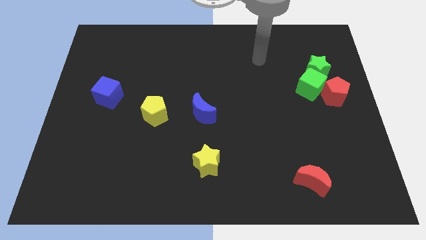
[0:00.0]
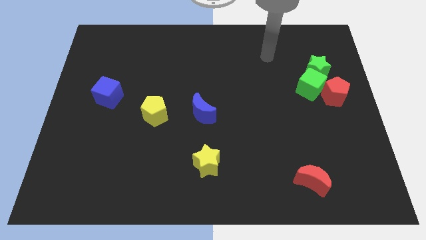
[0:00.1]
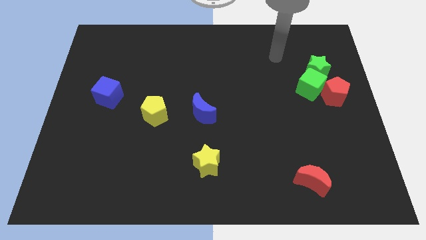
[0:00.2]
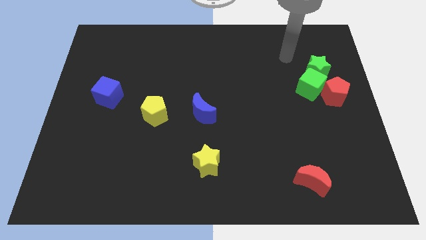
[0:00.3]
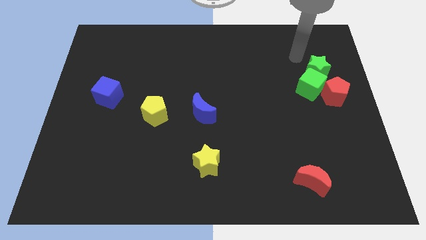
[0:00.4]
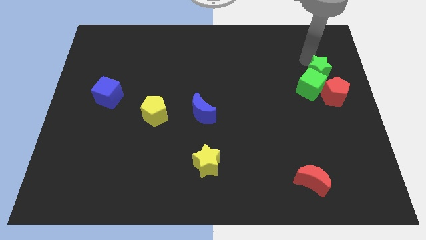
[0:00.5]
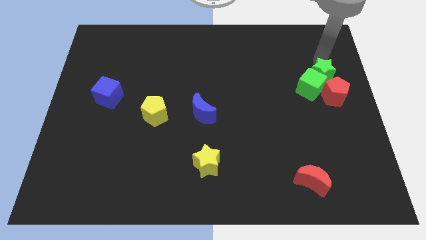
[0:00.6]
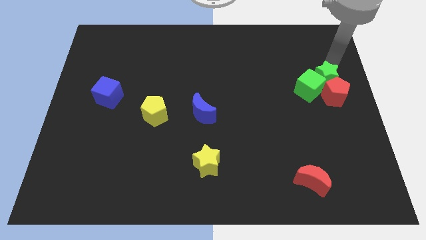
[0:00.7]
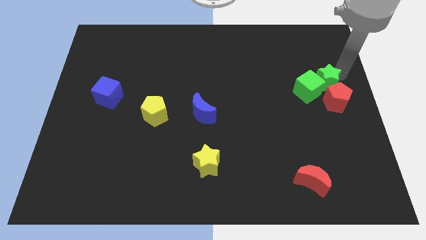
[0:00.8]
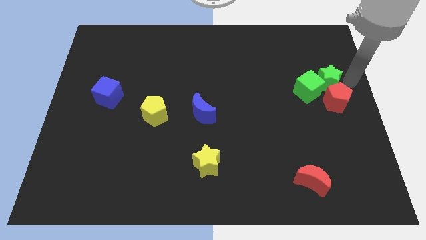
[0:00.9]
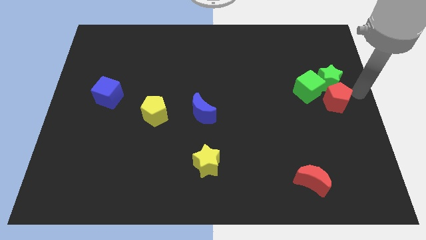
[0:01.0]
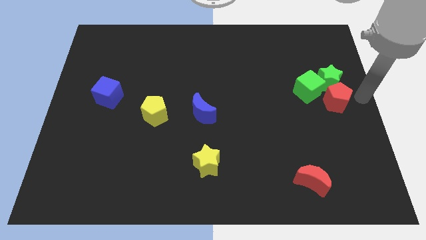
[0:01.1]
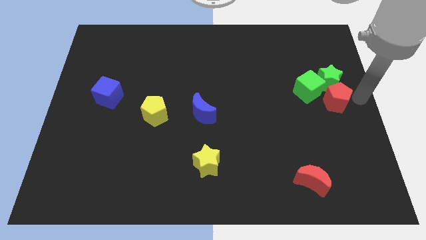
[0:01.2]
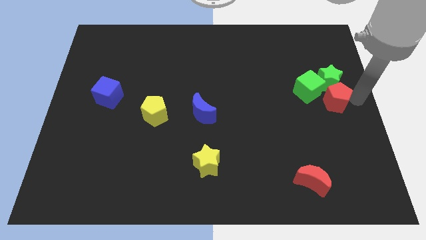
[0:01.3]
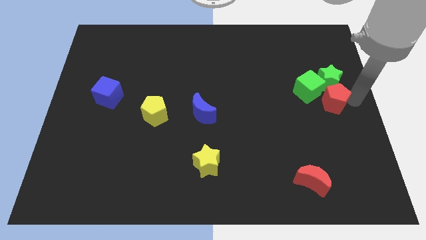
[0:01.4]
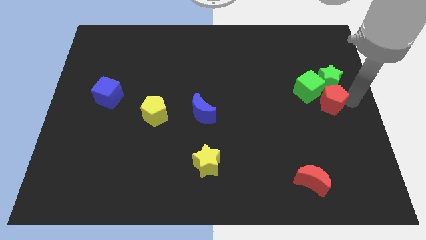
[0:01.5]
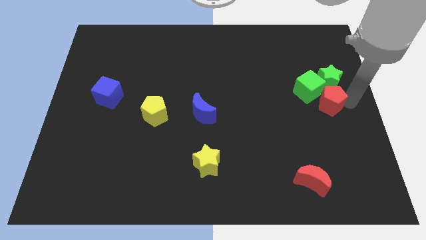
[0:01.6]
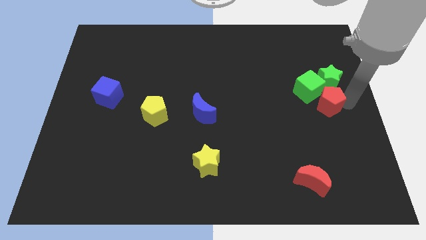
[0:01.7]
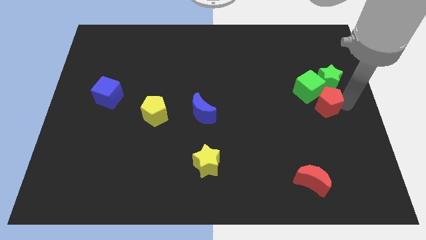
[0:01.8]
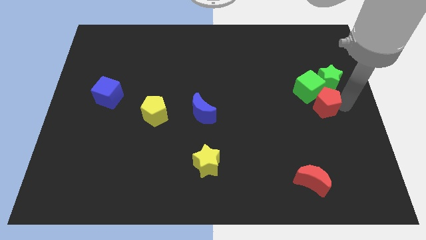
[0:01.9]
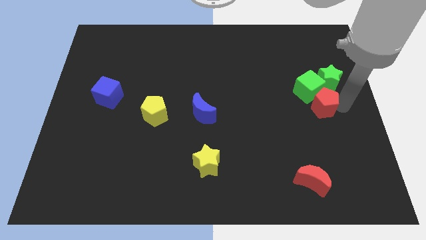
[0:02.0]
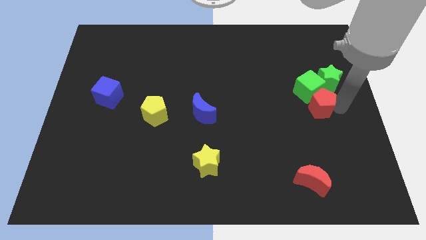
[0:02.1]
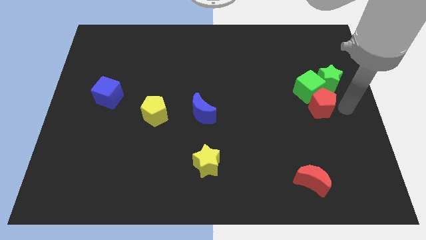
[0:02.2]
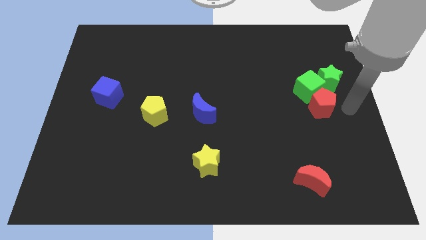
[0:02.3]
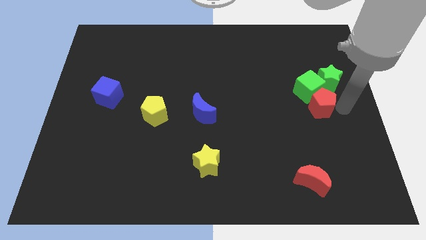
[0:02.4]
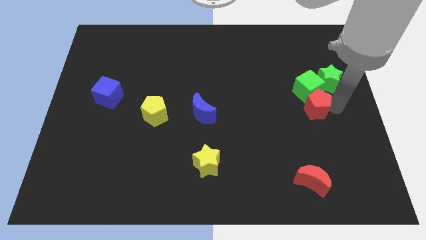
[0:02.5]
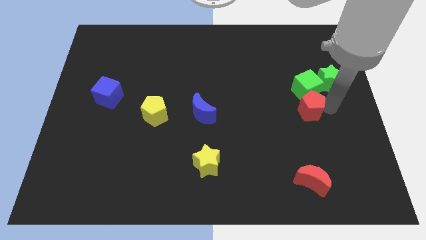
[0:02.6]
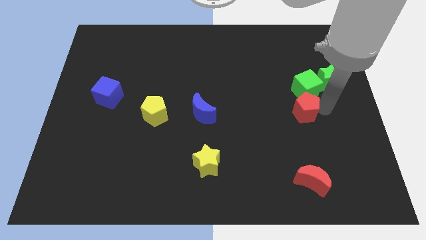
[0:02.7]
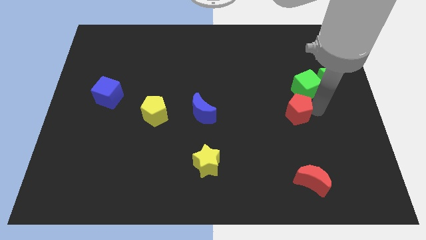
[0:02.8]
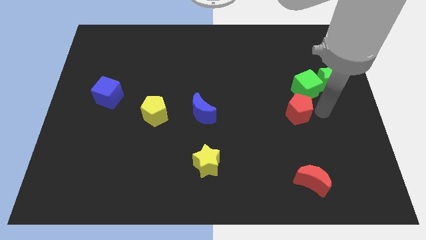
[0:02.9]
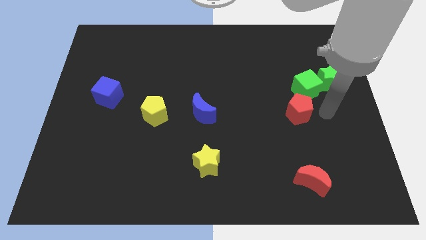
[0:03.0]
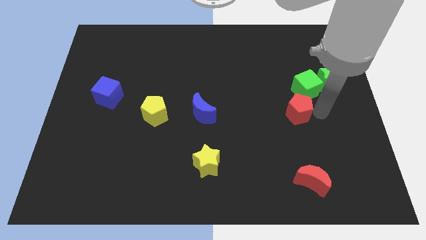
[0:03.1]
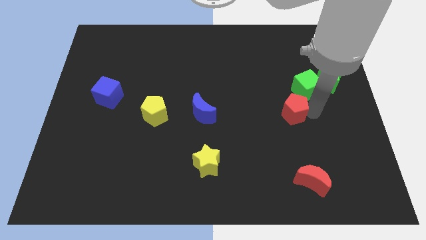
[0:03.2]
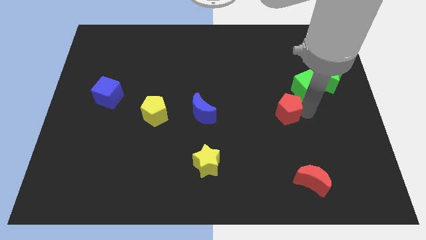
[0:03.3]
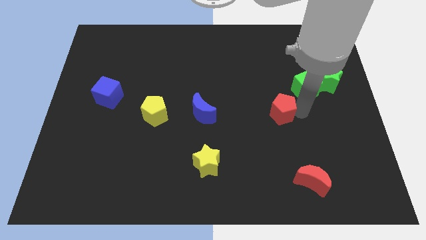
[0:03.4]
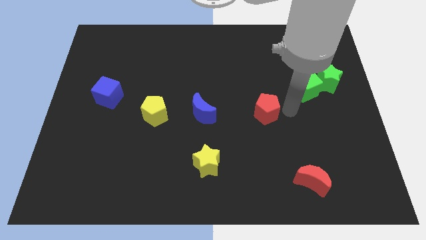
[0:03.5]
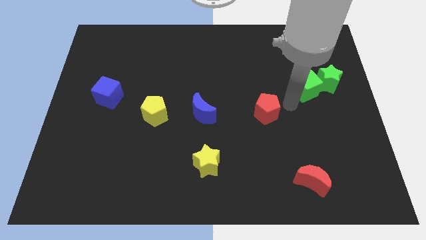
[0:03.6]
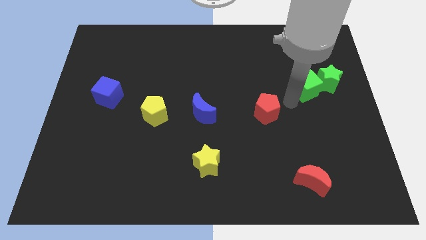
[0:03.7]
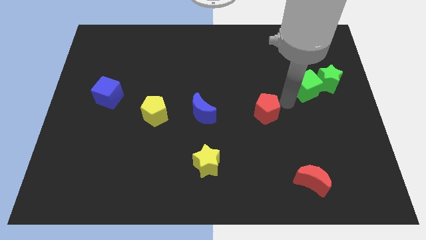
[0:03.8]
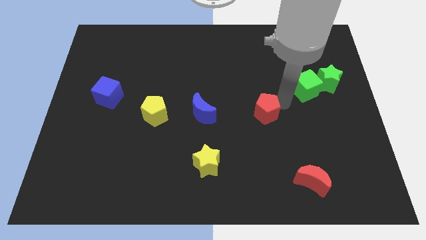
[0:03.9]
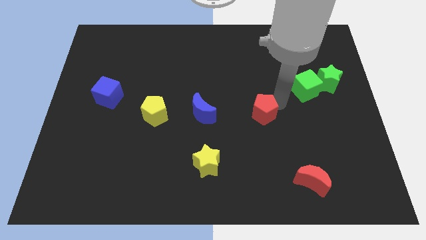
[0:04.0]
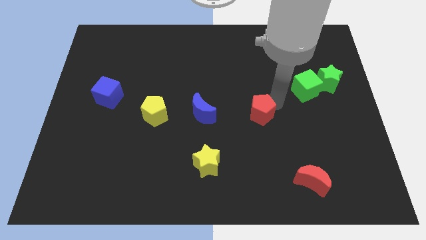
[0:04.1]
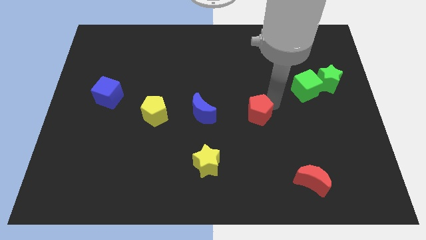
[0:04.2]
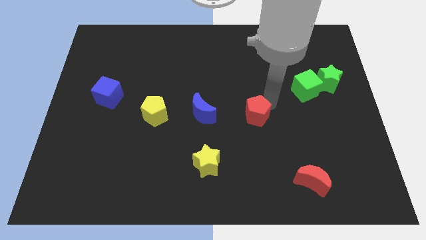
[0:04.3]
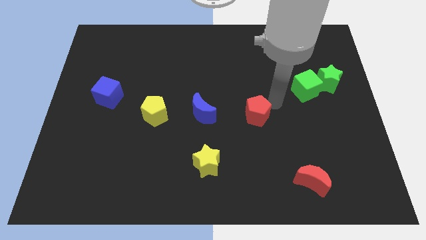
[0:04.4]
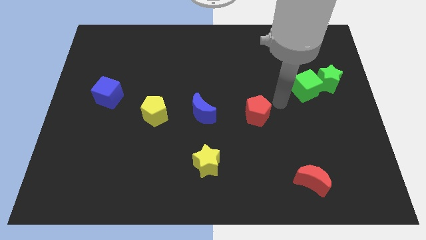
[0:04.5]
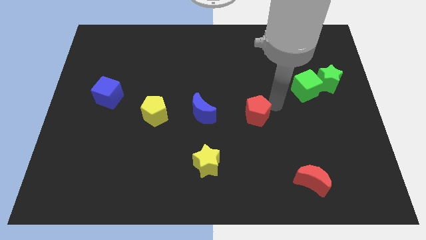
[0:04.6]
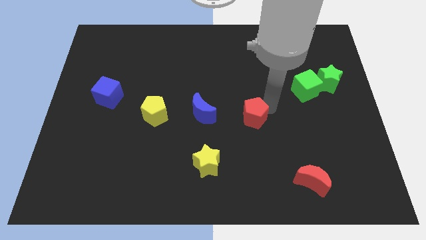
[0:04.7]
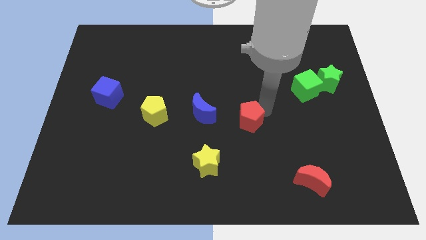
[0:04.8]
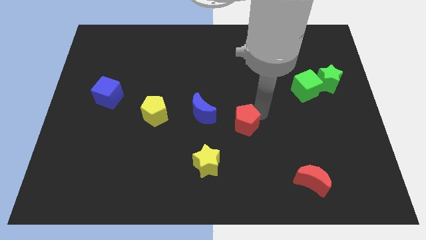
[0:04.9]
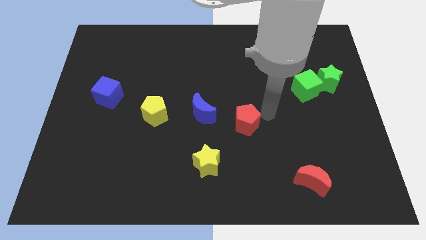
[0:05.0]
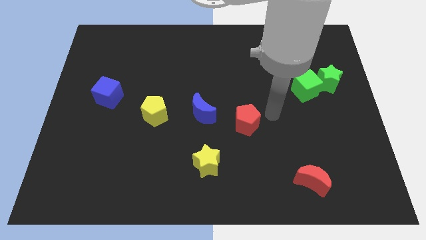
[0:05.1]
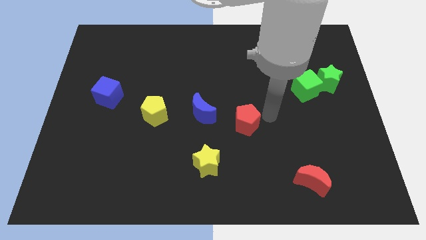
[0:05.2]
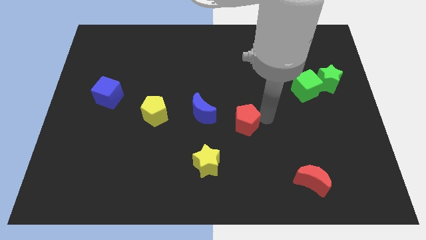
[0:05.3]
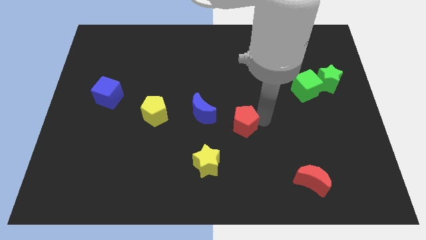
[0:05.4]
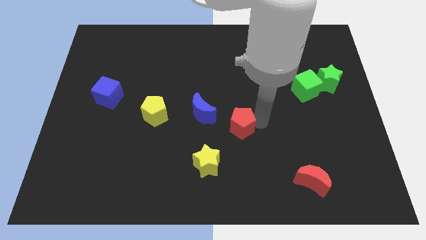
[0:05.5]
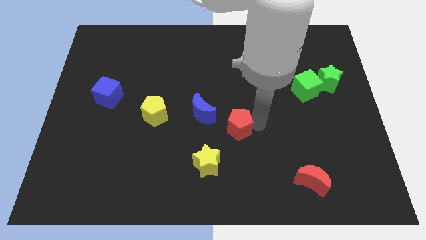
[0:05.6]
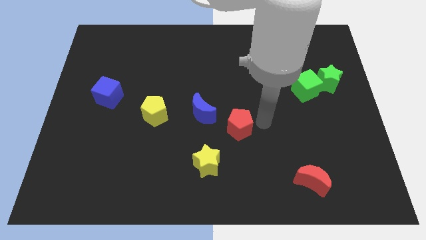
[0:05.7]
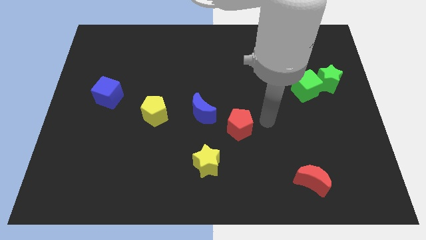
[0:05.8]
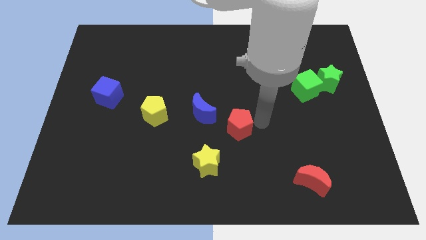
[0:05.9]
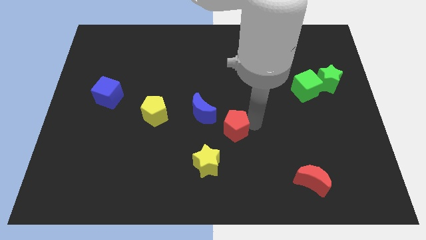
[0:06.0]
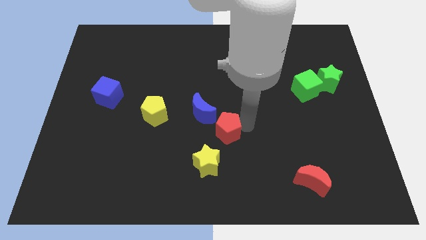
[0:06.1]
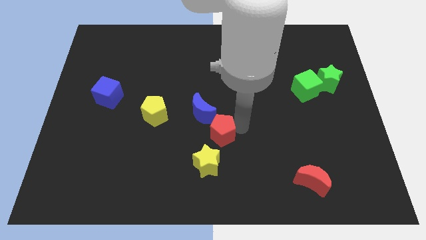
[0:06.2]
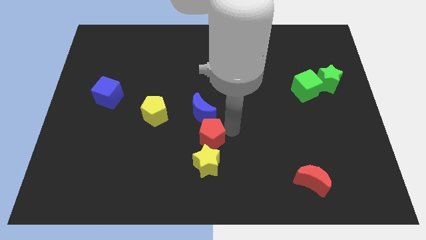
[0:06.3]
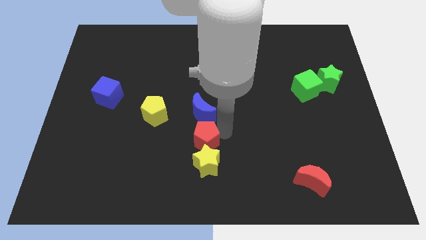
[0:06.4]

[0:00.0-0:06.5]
slide the red pentagon diagonally up and to the left of the yellow star
